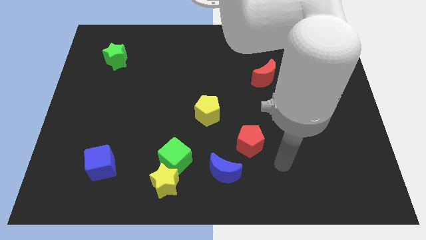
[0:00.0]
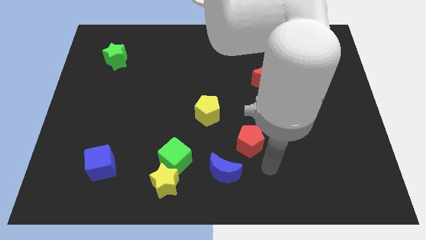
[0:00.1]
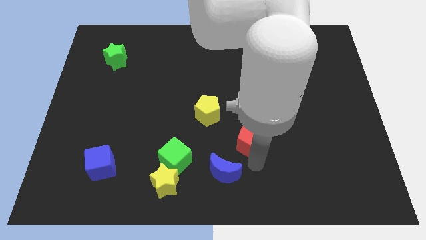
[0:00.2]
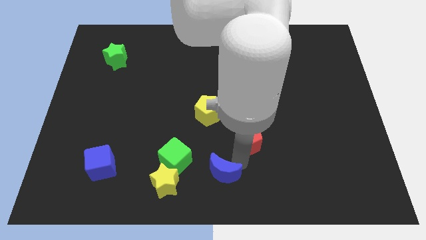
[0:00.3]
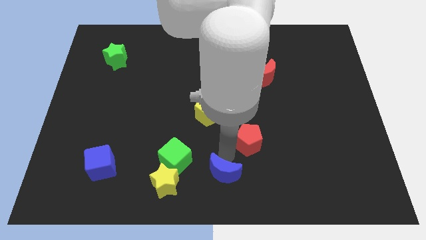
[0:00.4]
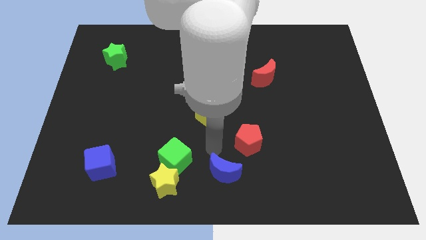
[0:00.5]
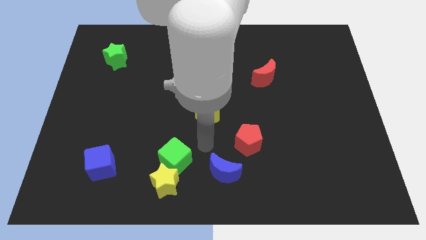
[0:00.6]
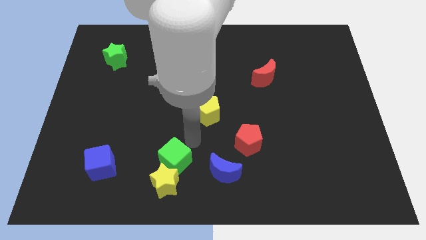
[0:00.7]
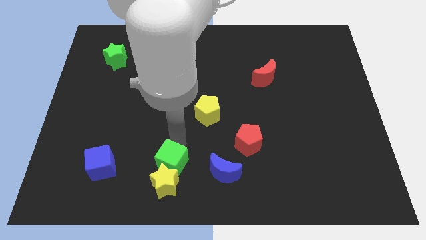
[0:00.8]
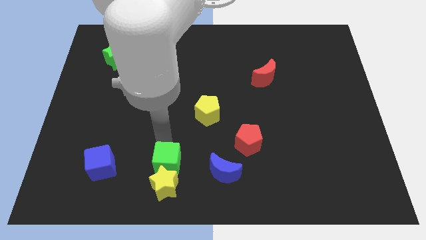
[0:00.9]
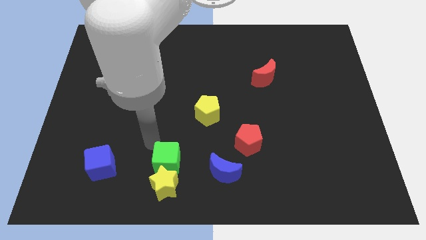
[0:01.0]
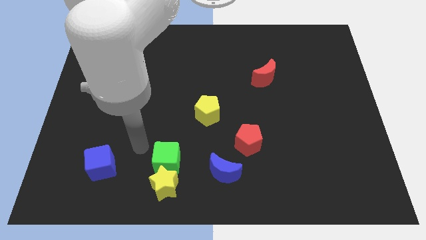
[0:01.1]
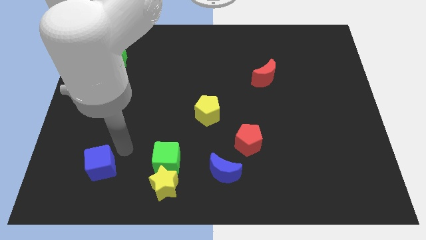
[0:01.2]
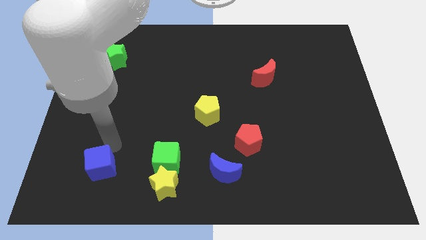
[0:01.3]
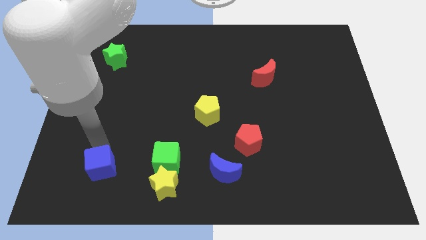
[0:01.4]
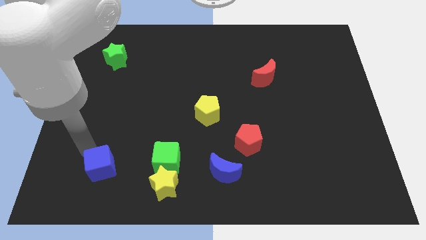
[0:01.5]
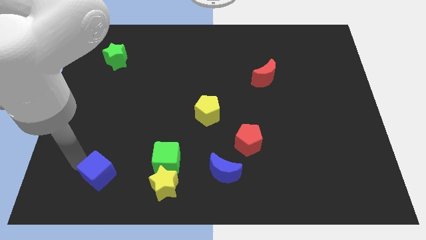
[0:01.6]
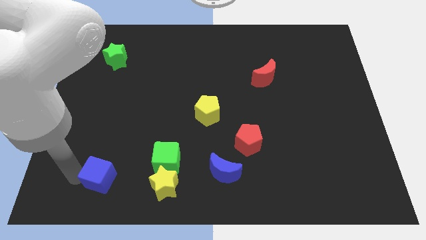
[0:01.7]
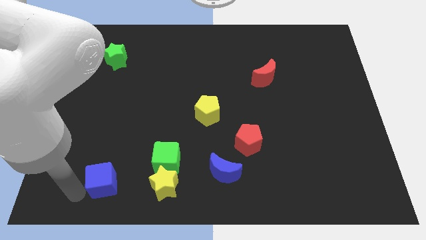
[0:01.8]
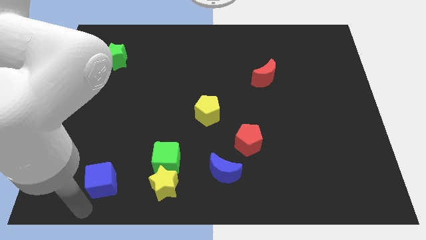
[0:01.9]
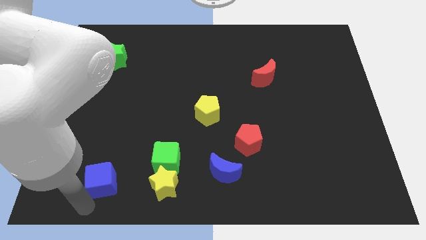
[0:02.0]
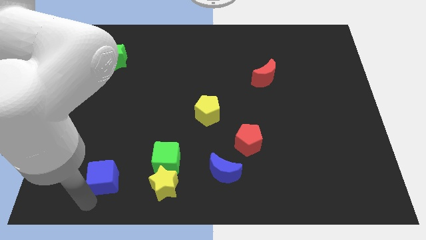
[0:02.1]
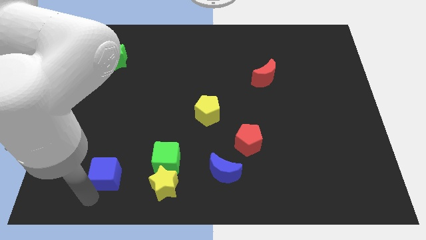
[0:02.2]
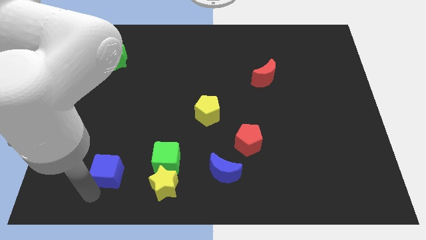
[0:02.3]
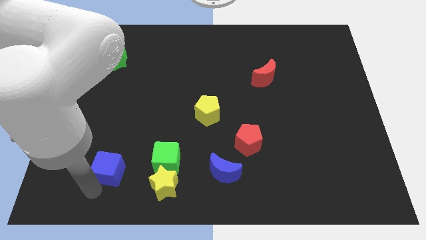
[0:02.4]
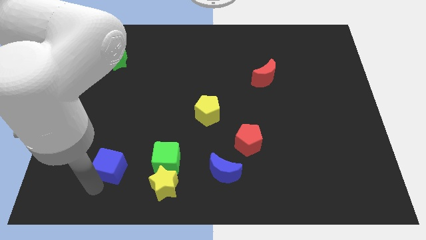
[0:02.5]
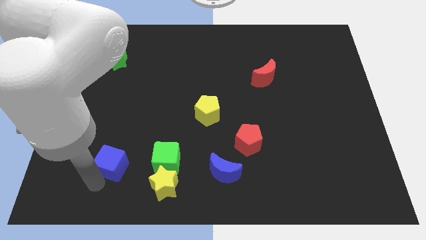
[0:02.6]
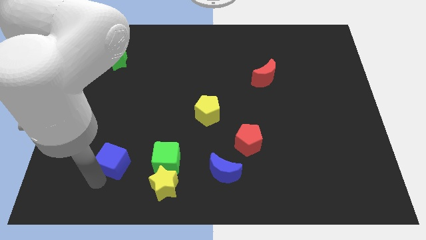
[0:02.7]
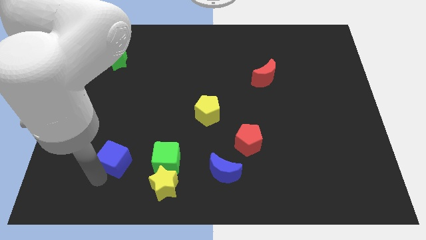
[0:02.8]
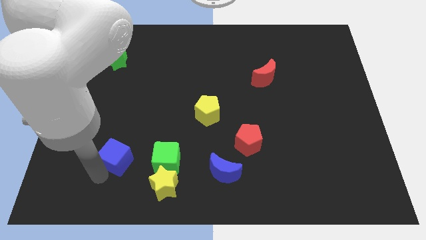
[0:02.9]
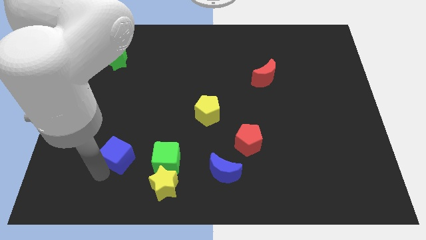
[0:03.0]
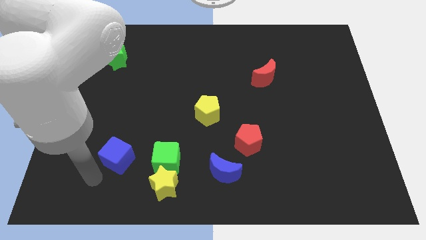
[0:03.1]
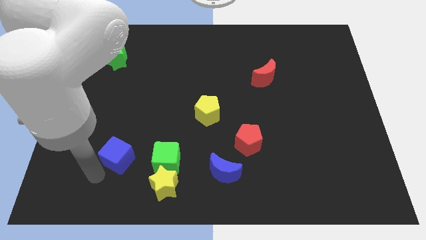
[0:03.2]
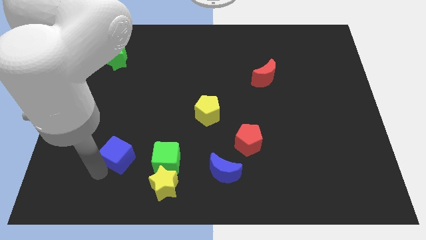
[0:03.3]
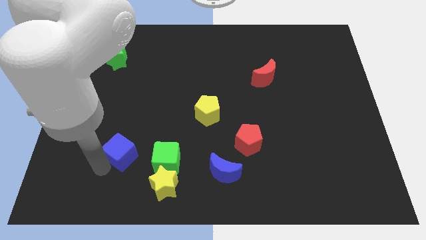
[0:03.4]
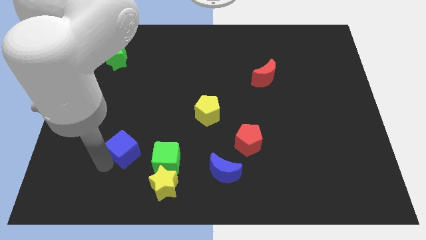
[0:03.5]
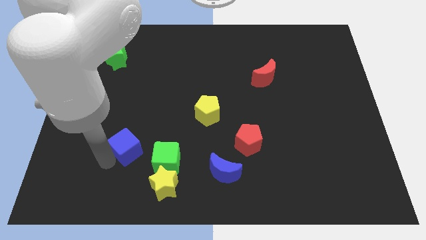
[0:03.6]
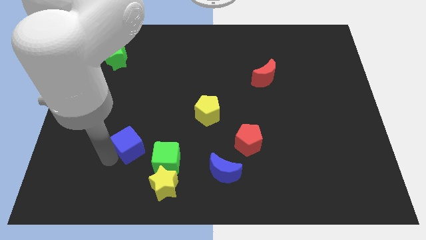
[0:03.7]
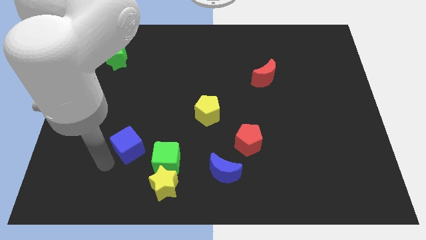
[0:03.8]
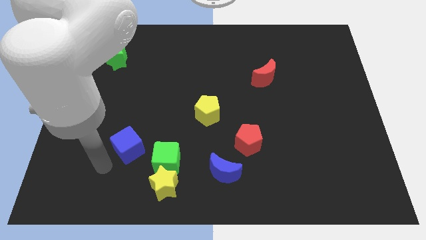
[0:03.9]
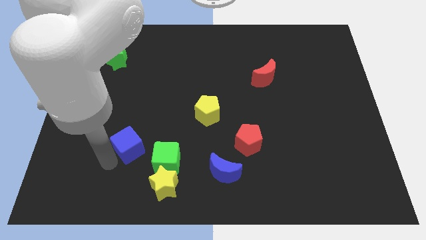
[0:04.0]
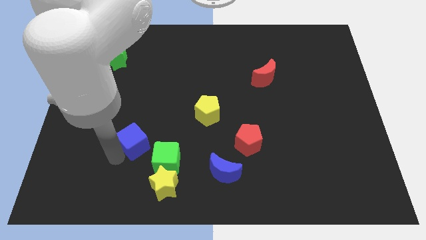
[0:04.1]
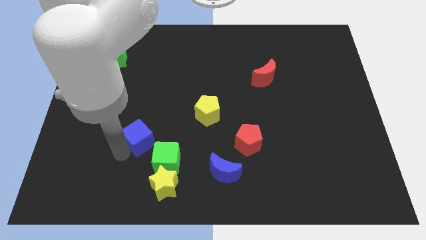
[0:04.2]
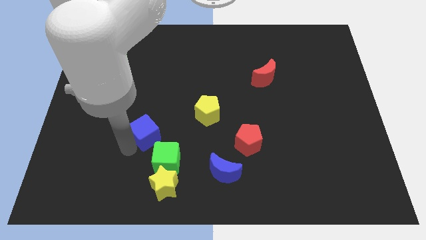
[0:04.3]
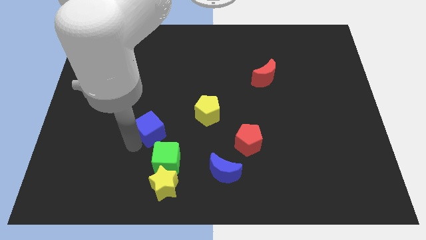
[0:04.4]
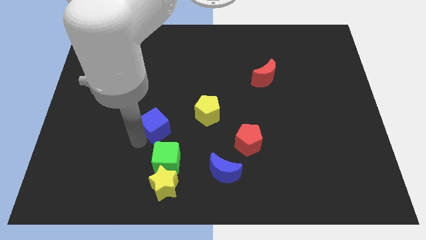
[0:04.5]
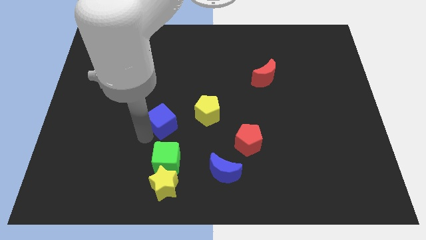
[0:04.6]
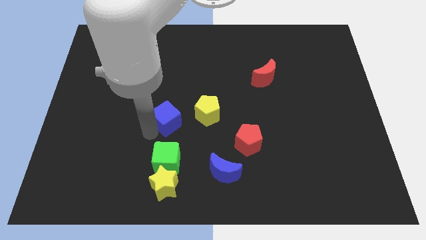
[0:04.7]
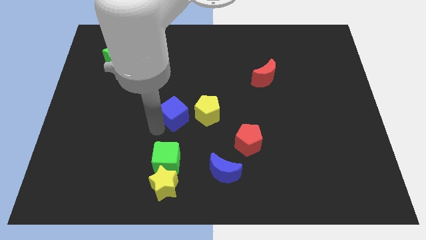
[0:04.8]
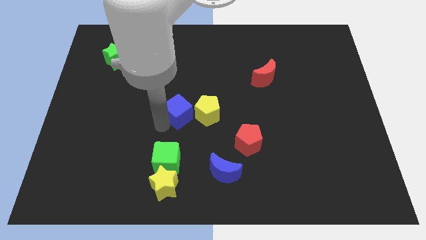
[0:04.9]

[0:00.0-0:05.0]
move the blue cube up and right

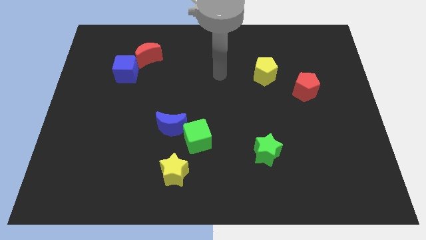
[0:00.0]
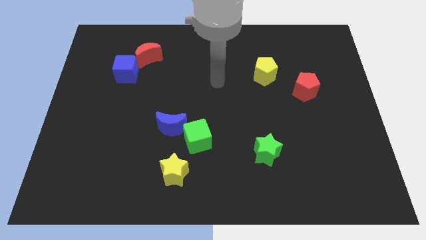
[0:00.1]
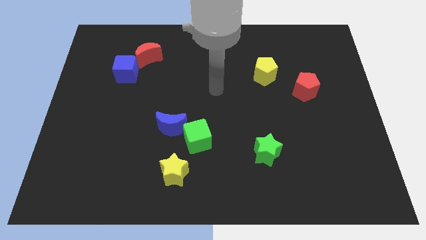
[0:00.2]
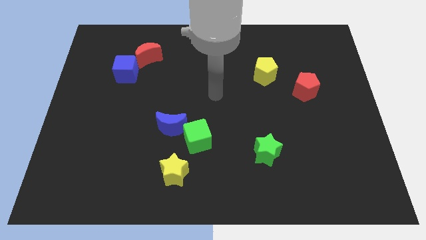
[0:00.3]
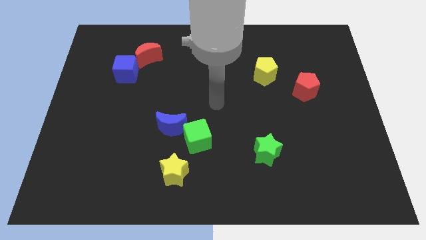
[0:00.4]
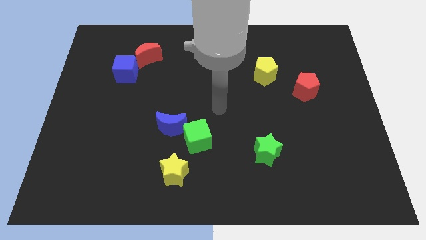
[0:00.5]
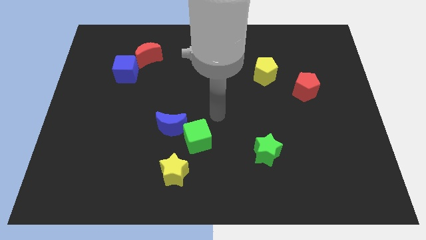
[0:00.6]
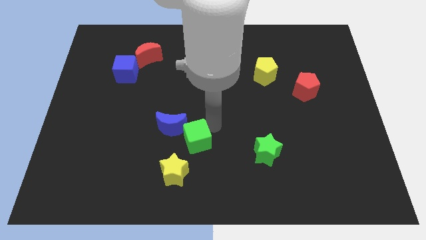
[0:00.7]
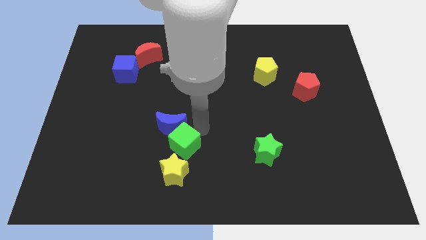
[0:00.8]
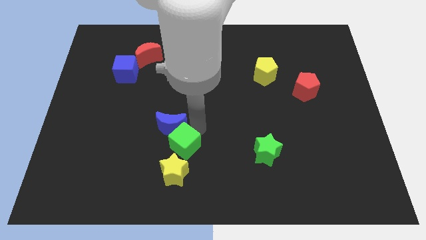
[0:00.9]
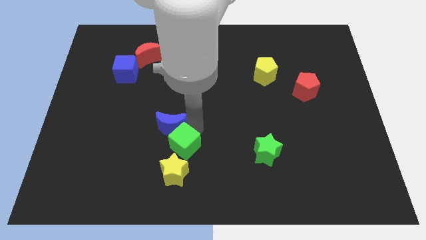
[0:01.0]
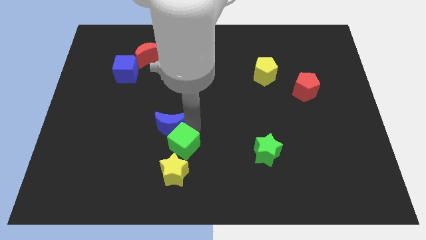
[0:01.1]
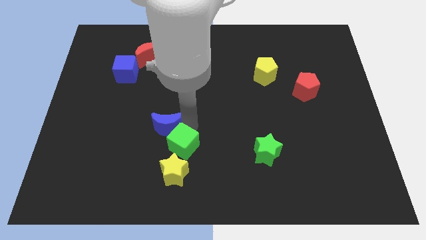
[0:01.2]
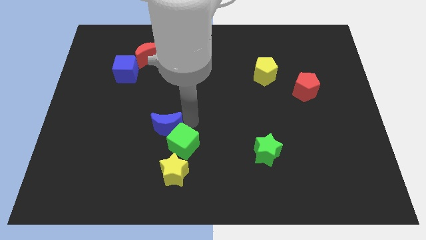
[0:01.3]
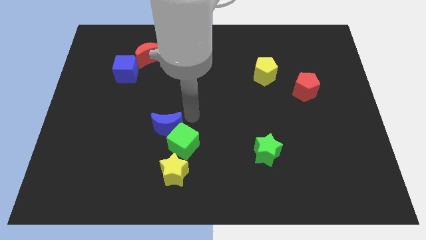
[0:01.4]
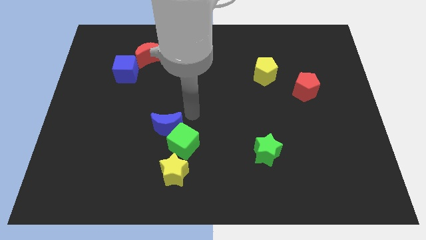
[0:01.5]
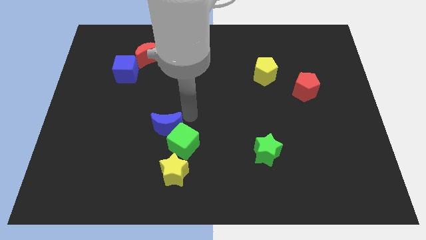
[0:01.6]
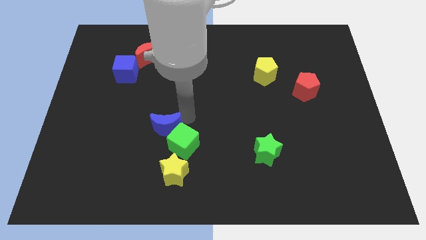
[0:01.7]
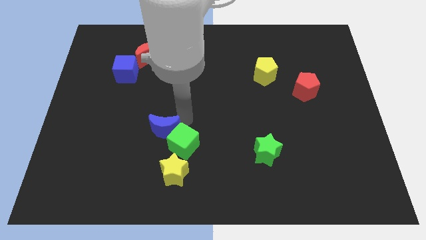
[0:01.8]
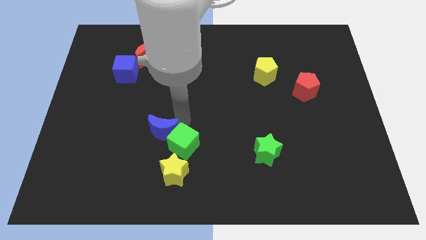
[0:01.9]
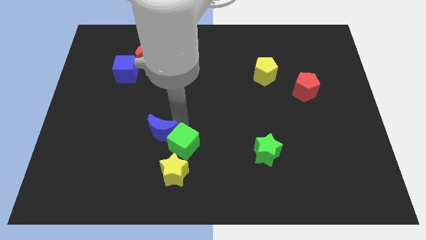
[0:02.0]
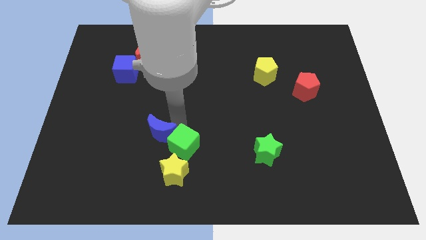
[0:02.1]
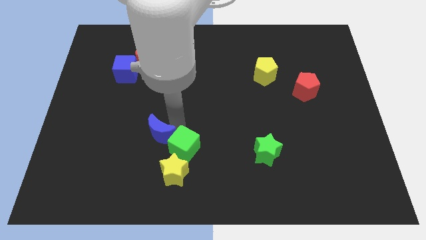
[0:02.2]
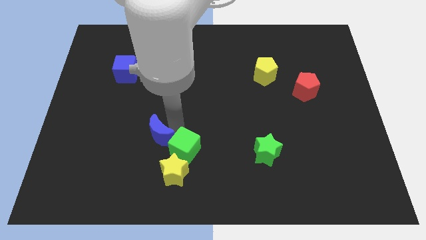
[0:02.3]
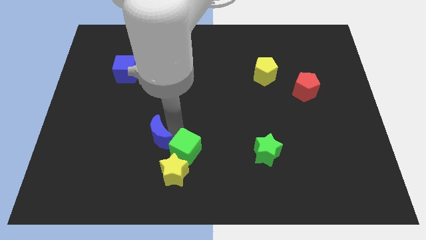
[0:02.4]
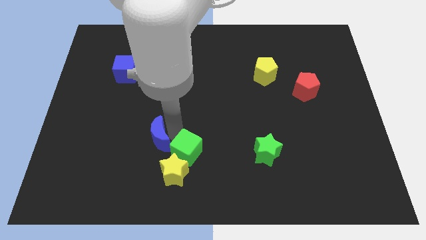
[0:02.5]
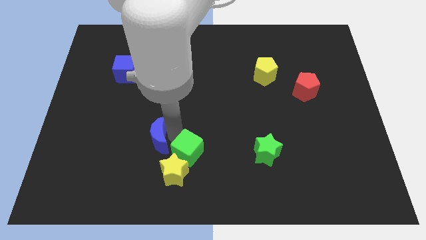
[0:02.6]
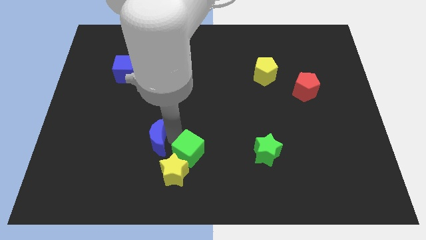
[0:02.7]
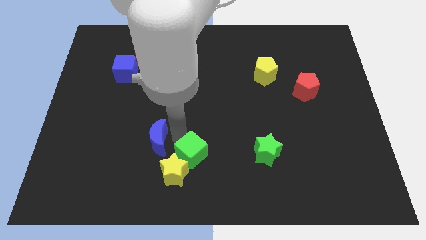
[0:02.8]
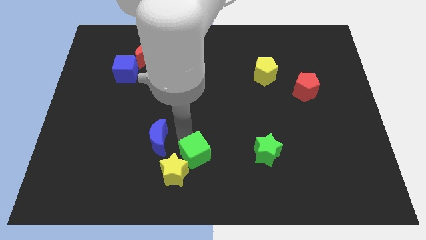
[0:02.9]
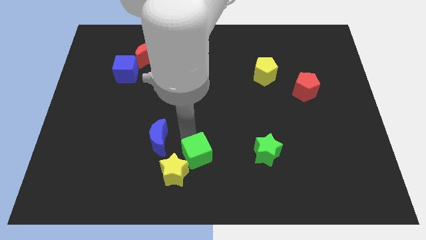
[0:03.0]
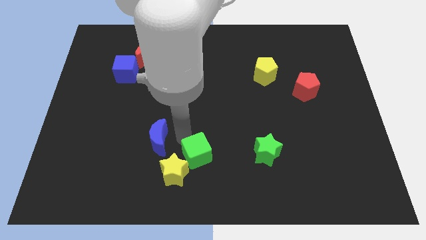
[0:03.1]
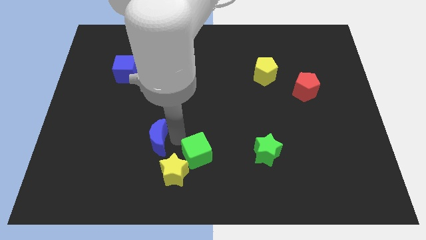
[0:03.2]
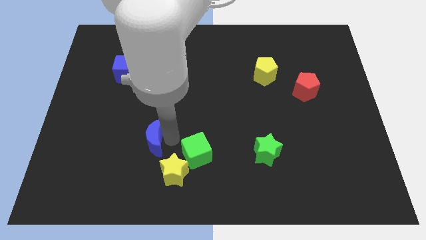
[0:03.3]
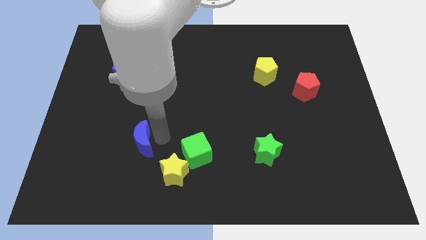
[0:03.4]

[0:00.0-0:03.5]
slide the blue moon a bit down and then left
